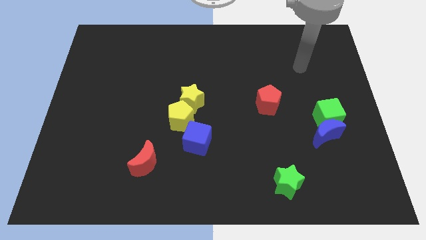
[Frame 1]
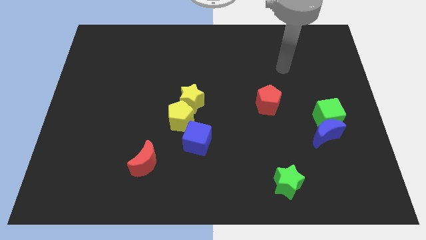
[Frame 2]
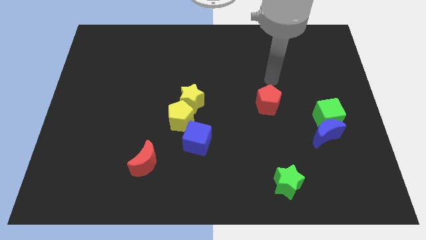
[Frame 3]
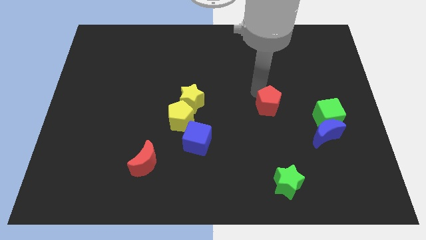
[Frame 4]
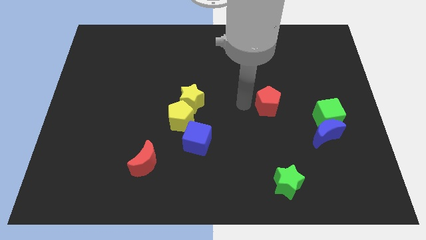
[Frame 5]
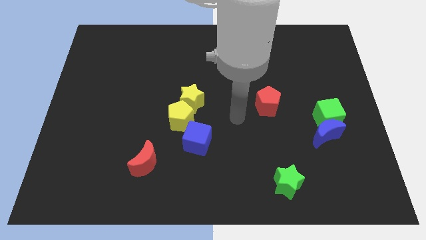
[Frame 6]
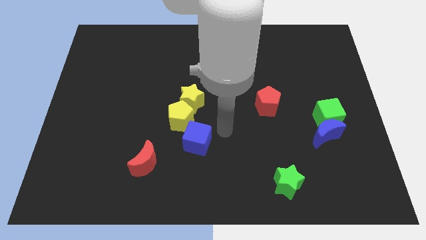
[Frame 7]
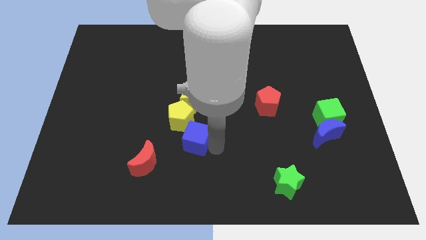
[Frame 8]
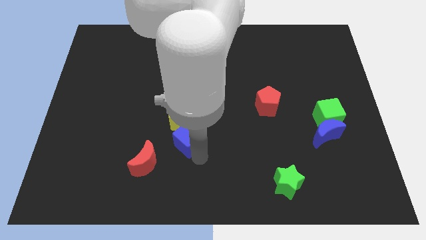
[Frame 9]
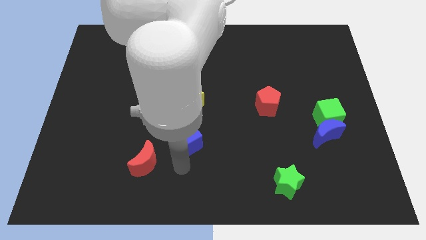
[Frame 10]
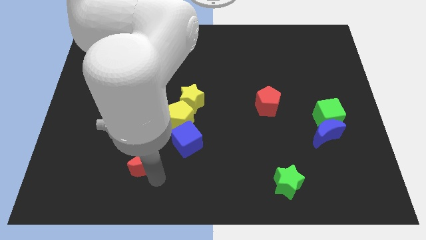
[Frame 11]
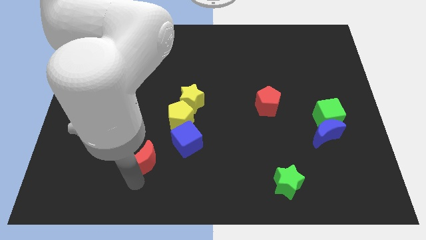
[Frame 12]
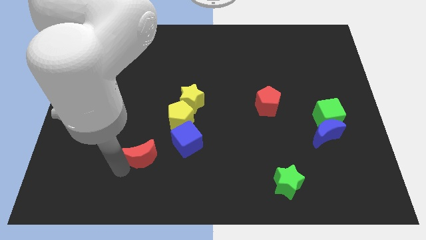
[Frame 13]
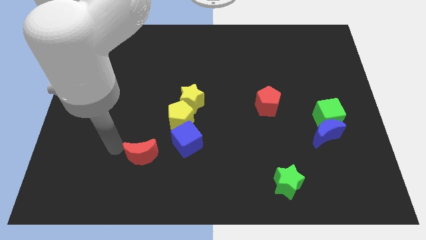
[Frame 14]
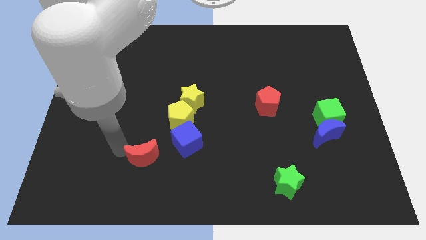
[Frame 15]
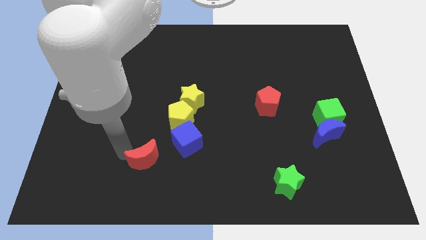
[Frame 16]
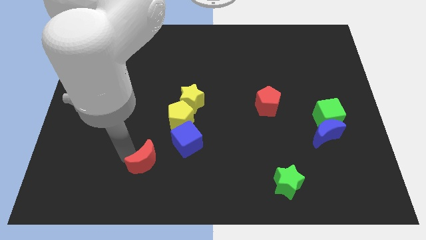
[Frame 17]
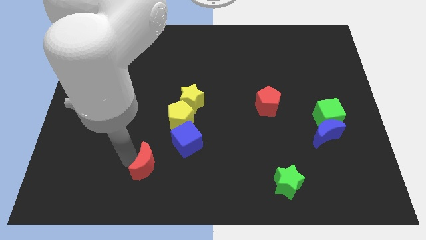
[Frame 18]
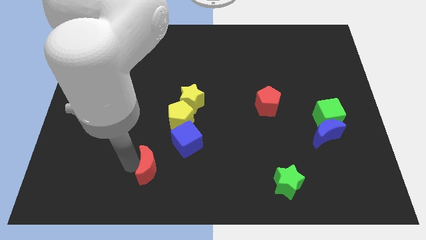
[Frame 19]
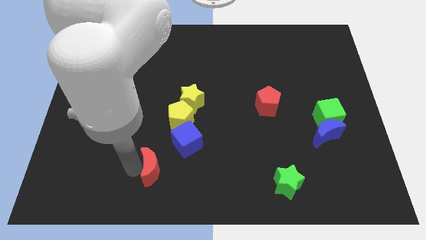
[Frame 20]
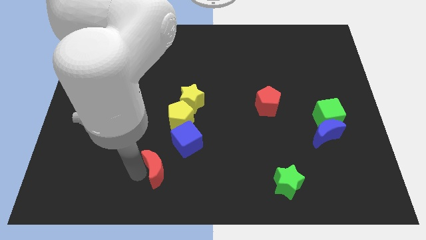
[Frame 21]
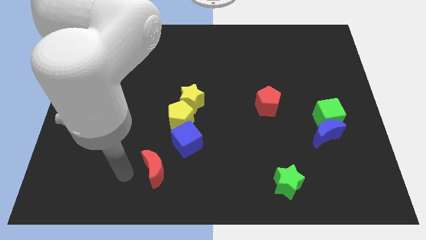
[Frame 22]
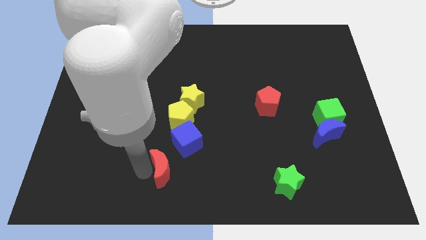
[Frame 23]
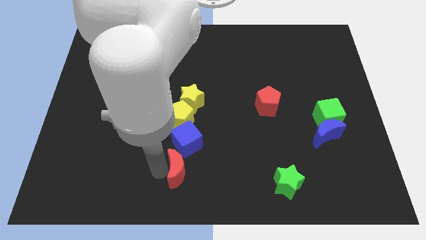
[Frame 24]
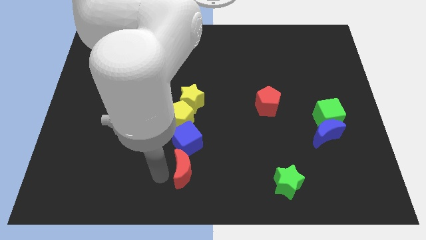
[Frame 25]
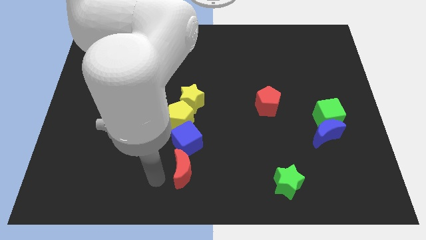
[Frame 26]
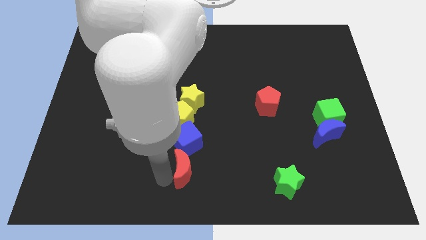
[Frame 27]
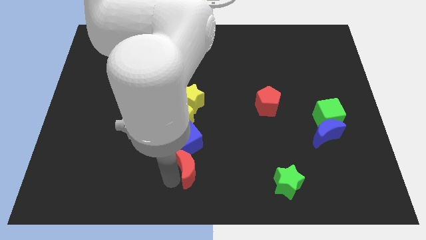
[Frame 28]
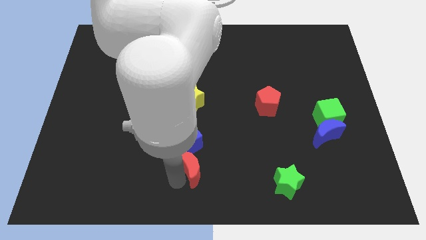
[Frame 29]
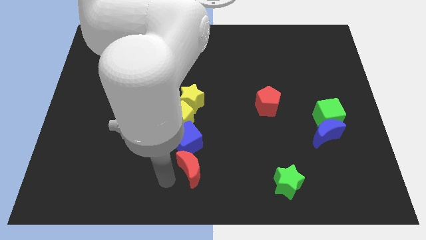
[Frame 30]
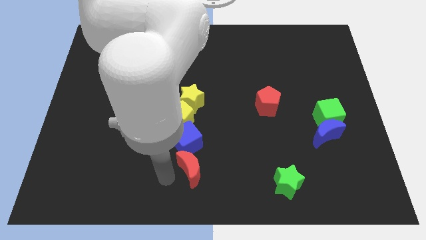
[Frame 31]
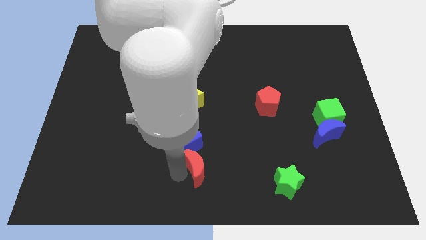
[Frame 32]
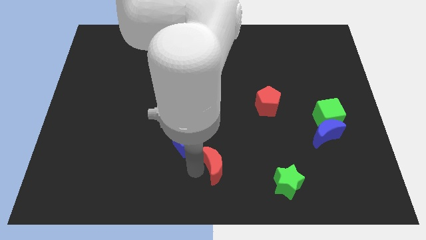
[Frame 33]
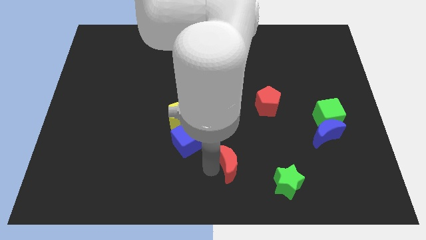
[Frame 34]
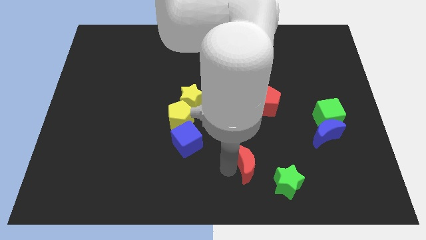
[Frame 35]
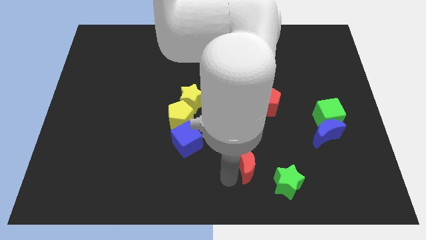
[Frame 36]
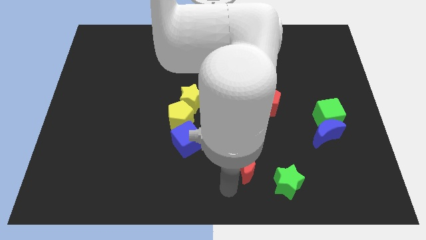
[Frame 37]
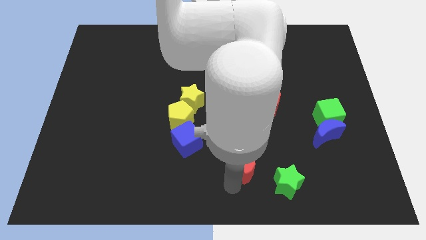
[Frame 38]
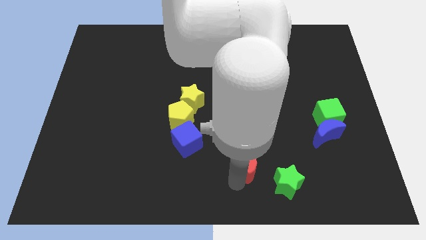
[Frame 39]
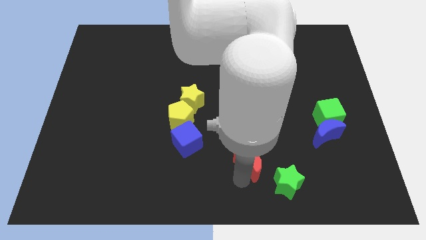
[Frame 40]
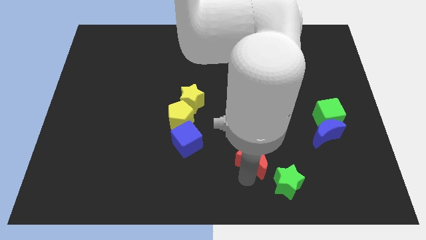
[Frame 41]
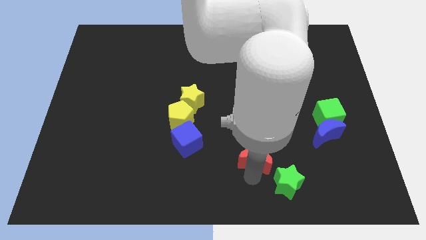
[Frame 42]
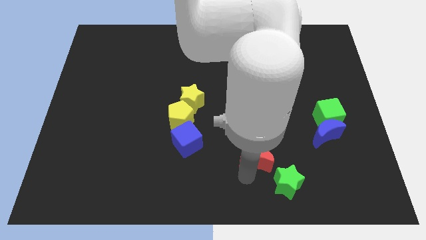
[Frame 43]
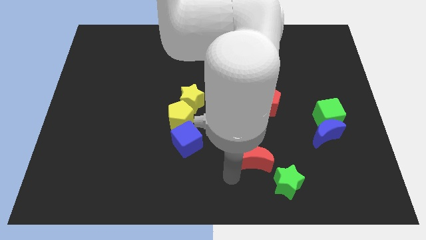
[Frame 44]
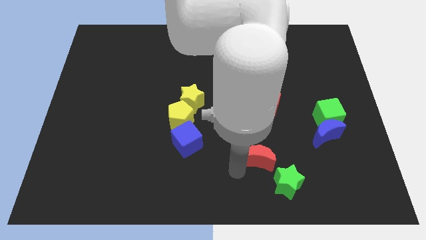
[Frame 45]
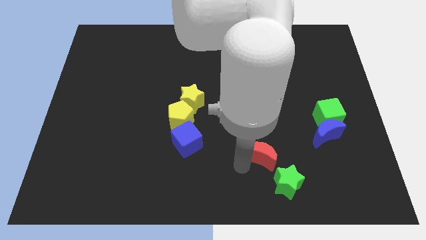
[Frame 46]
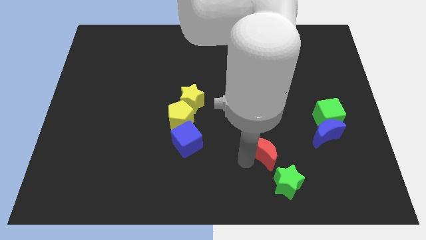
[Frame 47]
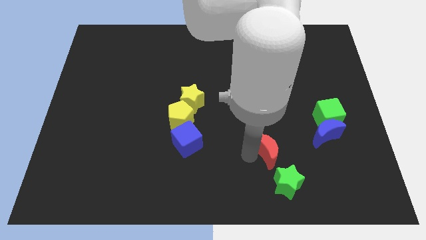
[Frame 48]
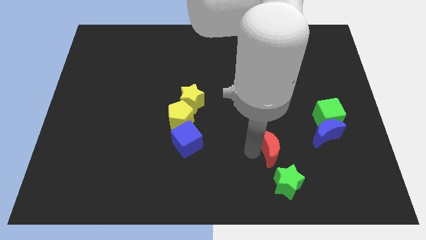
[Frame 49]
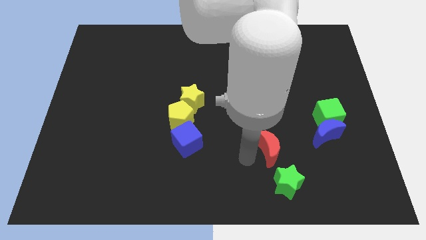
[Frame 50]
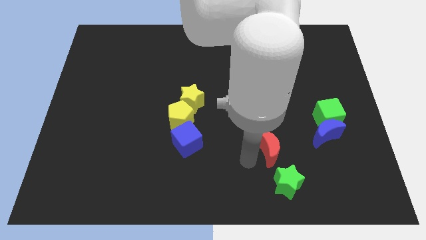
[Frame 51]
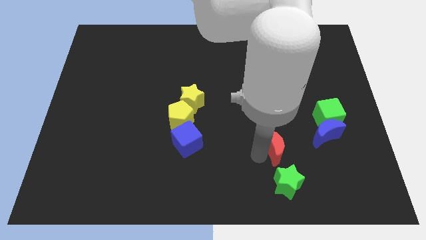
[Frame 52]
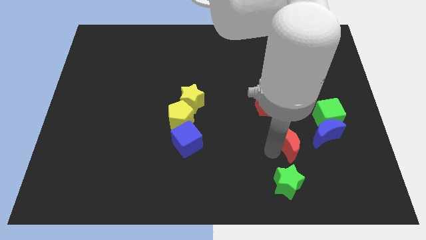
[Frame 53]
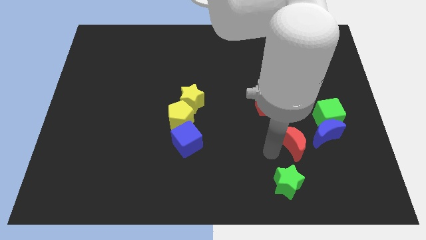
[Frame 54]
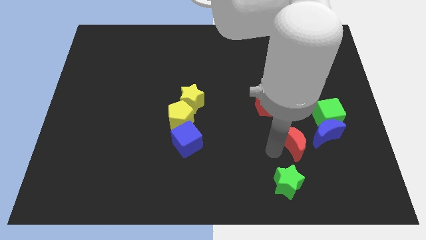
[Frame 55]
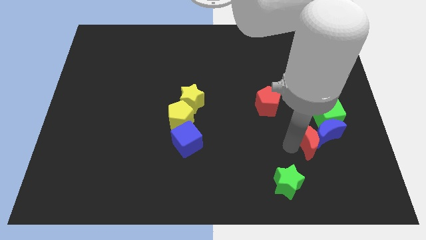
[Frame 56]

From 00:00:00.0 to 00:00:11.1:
push the red moon close to the blue moon
